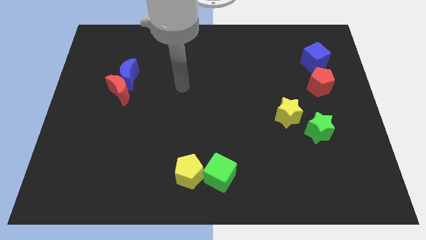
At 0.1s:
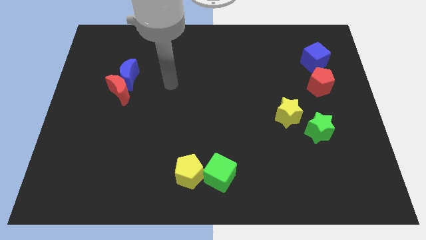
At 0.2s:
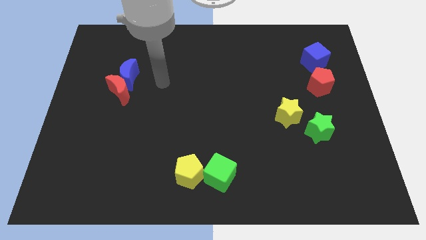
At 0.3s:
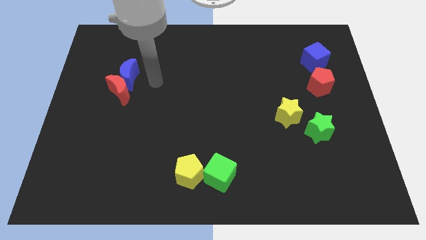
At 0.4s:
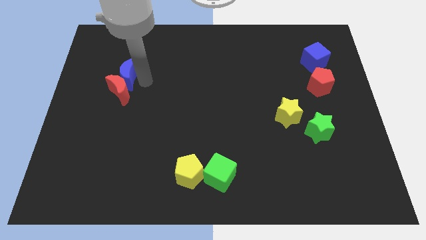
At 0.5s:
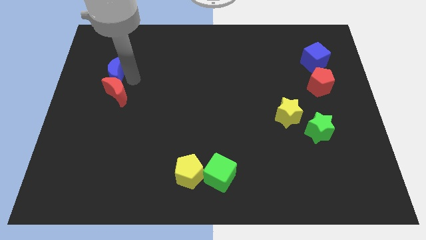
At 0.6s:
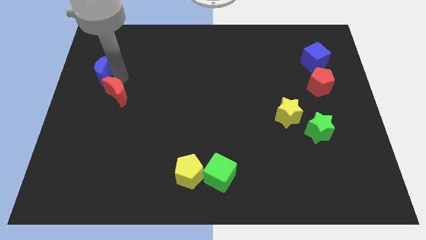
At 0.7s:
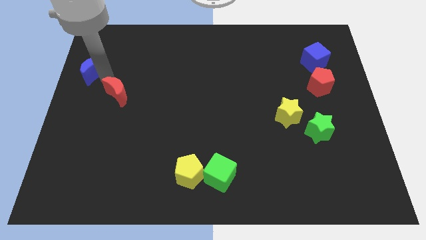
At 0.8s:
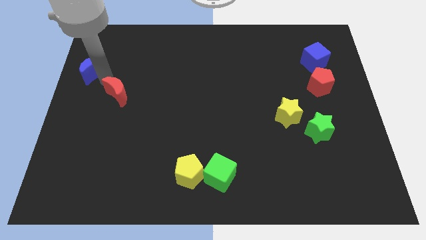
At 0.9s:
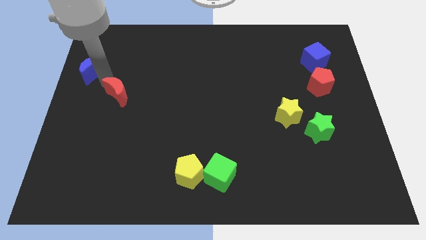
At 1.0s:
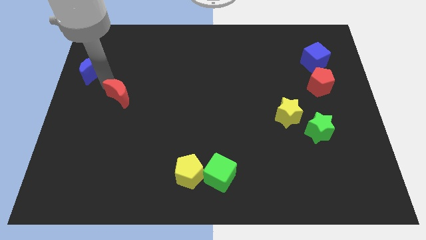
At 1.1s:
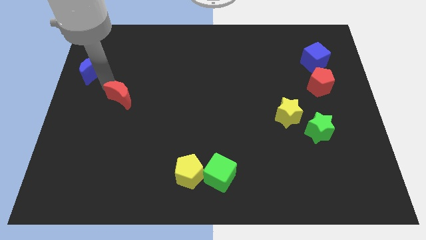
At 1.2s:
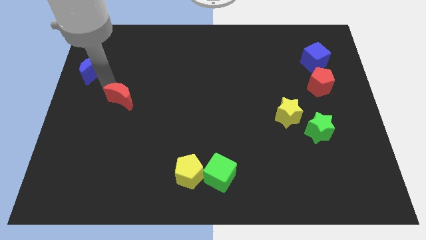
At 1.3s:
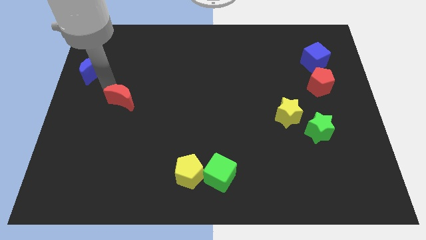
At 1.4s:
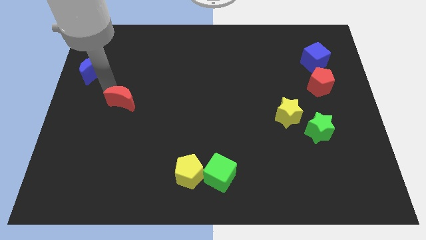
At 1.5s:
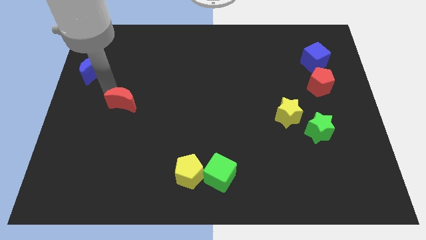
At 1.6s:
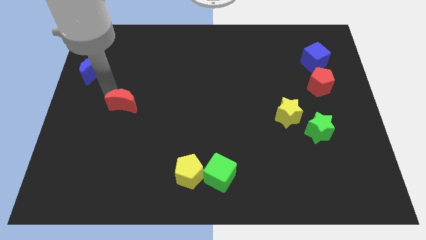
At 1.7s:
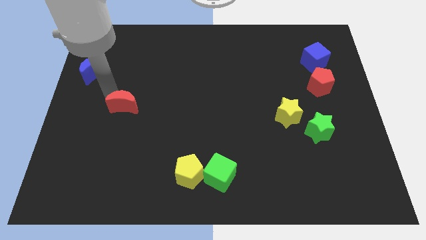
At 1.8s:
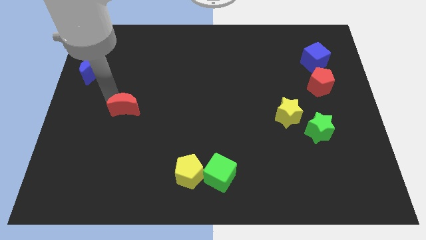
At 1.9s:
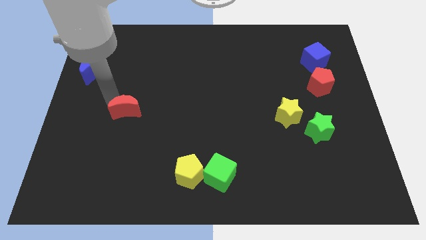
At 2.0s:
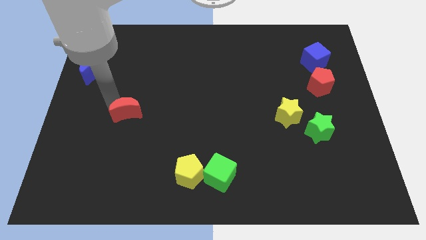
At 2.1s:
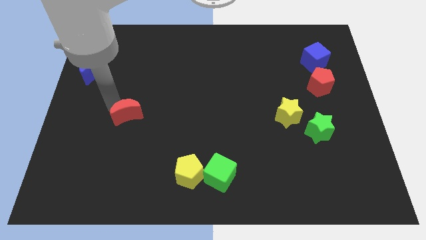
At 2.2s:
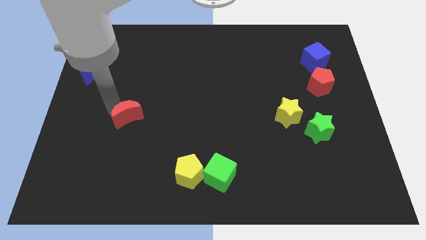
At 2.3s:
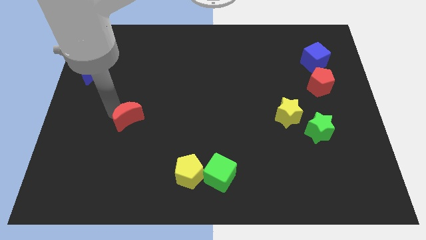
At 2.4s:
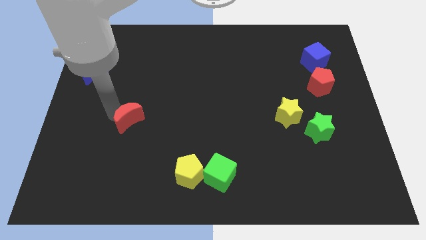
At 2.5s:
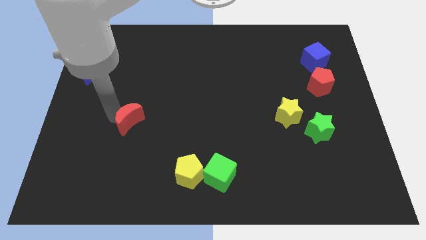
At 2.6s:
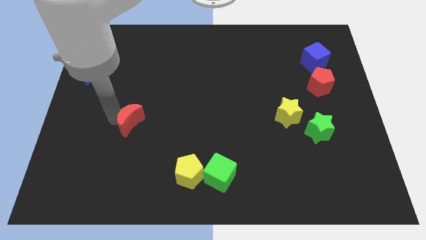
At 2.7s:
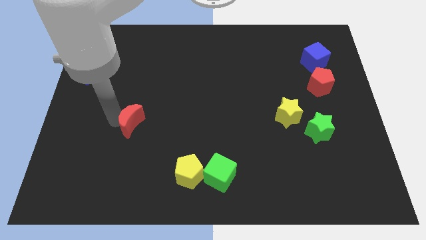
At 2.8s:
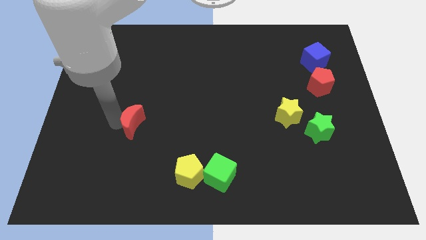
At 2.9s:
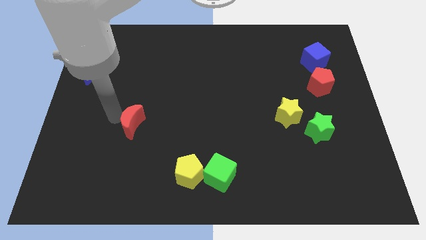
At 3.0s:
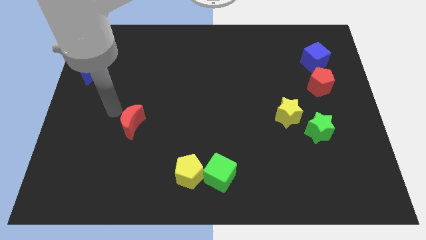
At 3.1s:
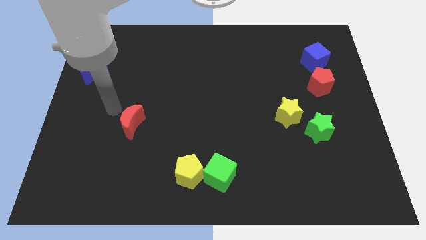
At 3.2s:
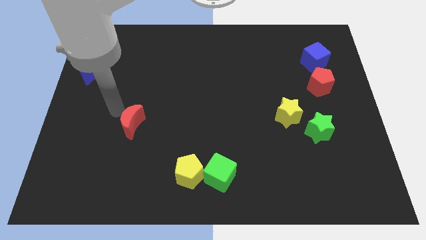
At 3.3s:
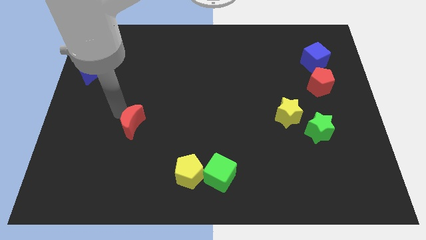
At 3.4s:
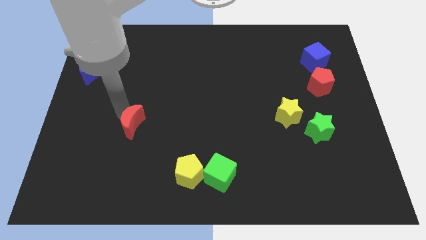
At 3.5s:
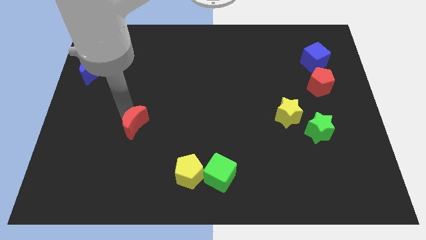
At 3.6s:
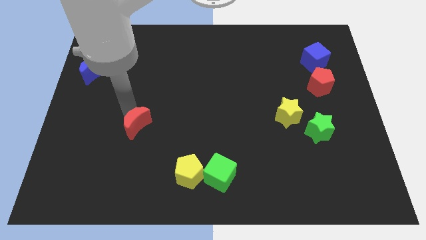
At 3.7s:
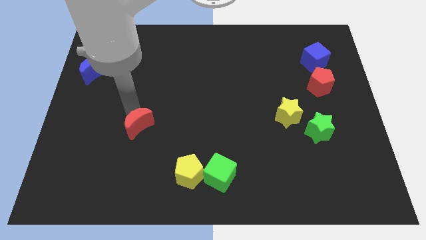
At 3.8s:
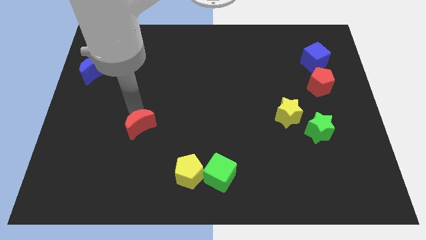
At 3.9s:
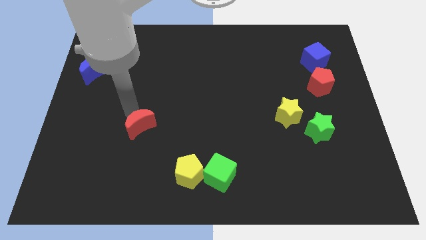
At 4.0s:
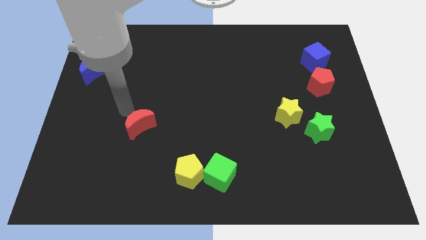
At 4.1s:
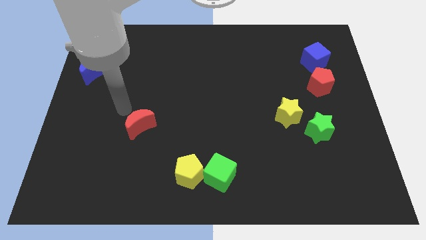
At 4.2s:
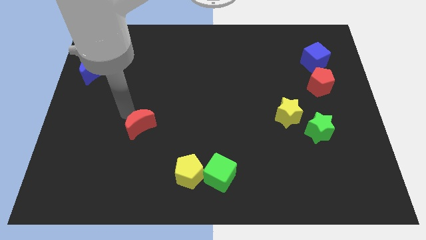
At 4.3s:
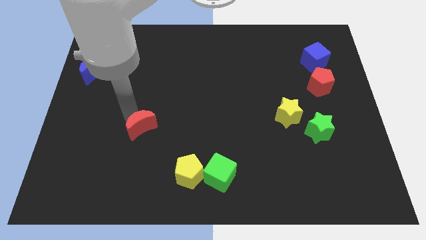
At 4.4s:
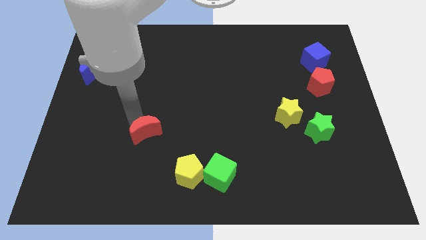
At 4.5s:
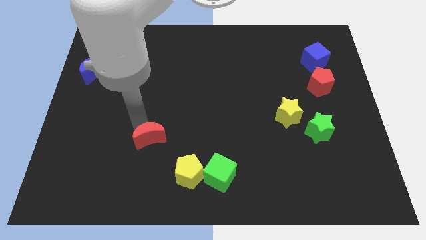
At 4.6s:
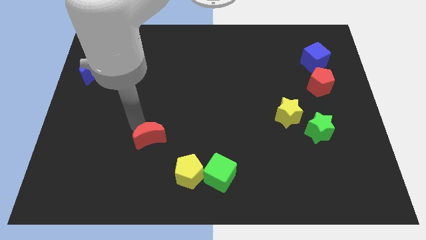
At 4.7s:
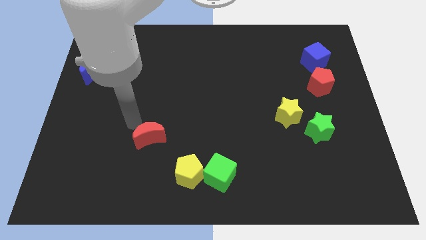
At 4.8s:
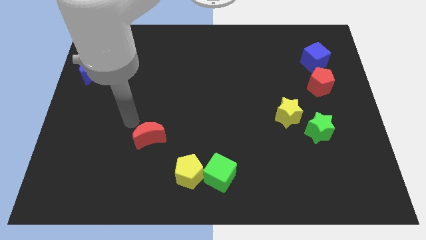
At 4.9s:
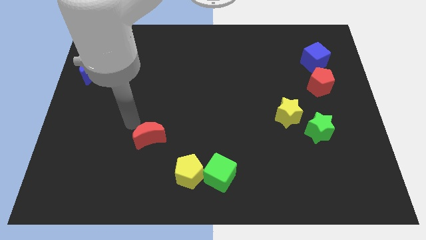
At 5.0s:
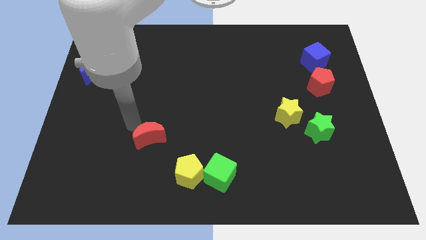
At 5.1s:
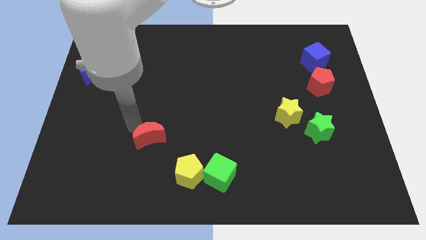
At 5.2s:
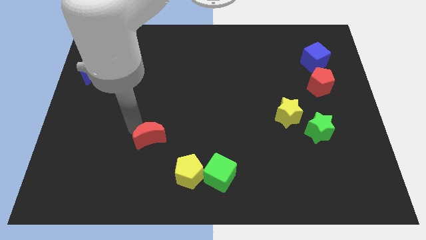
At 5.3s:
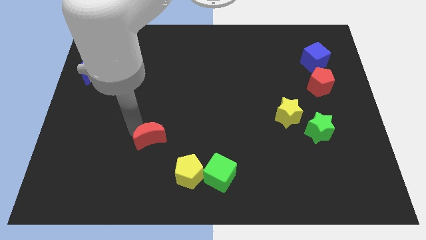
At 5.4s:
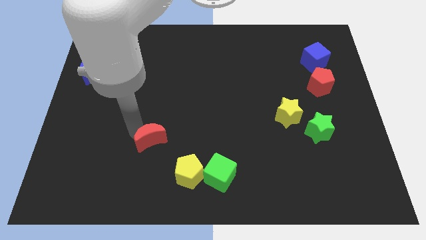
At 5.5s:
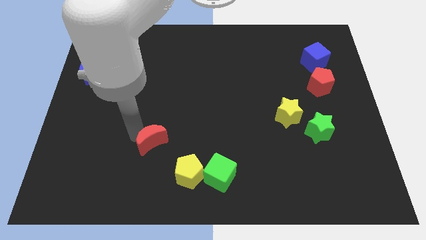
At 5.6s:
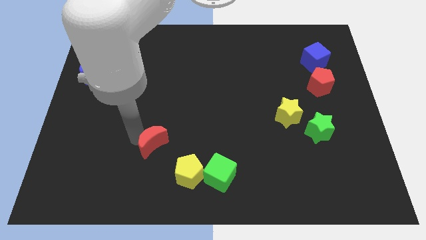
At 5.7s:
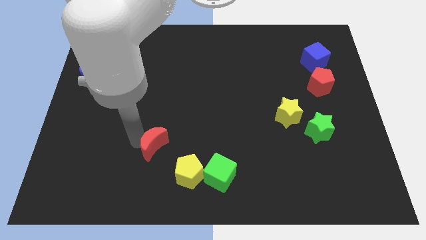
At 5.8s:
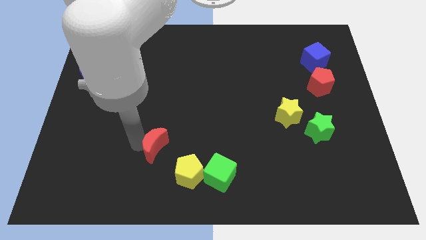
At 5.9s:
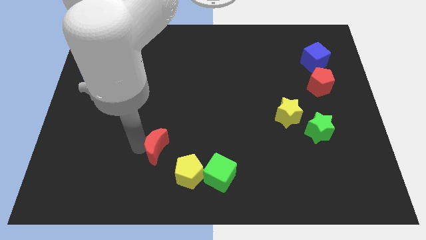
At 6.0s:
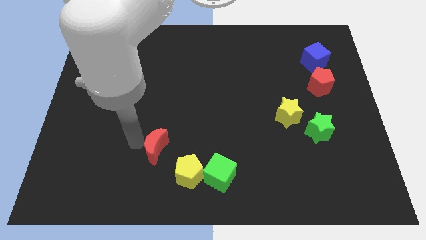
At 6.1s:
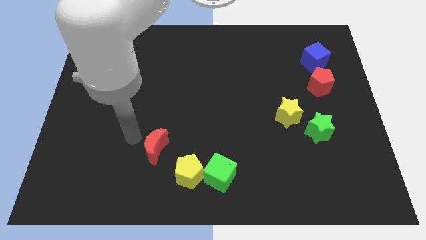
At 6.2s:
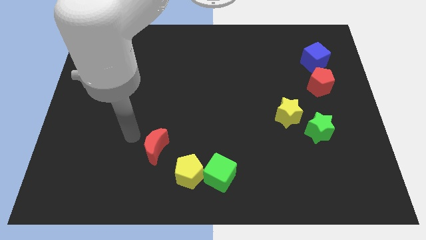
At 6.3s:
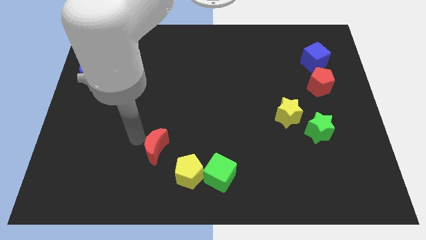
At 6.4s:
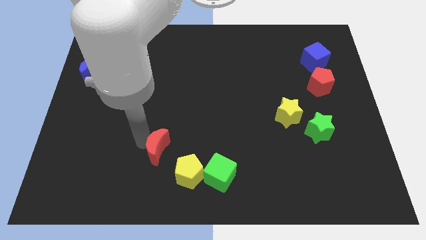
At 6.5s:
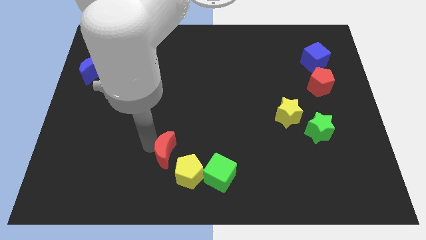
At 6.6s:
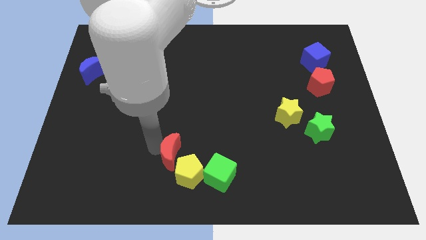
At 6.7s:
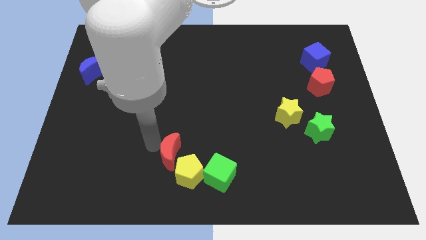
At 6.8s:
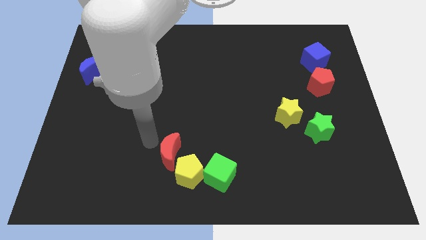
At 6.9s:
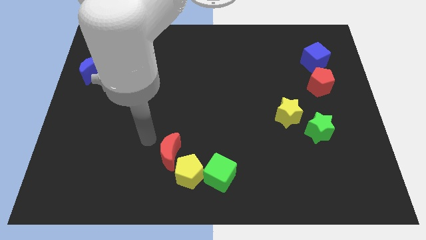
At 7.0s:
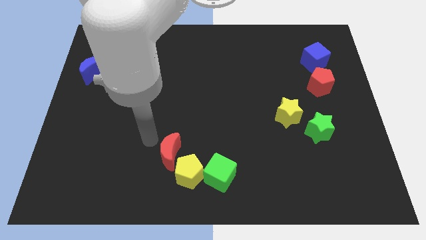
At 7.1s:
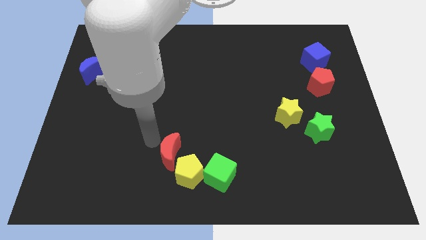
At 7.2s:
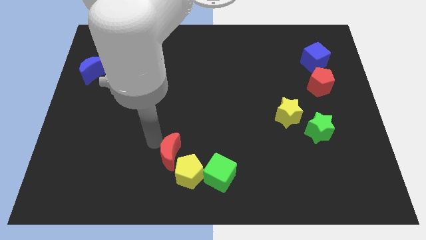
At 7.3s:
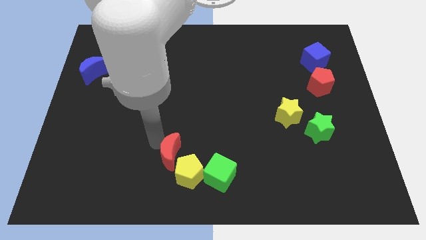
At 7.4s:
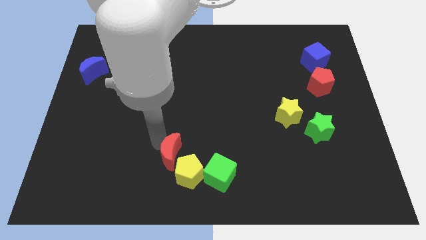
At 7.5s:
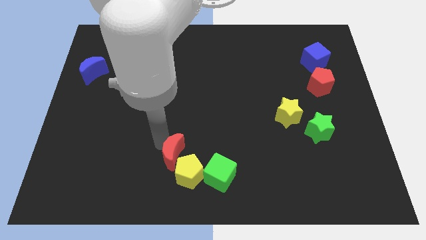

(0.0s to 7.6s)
push the red moon towards the yellow pentagon
